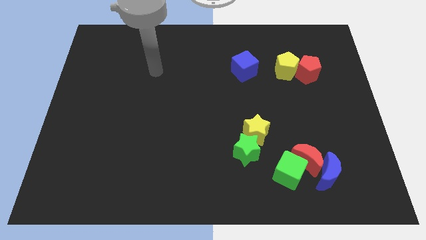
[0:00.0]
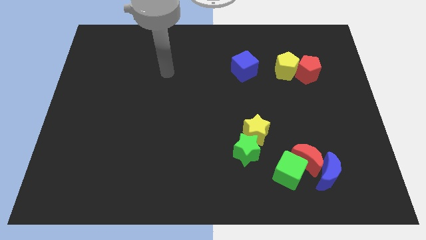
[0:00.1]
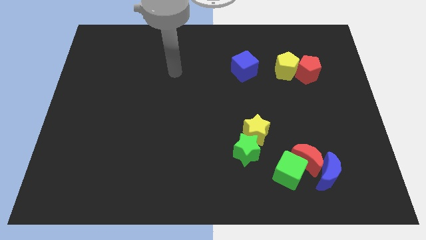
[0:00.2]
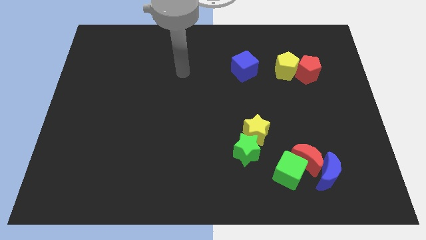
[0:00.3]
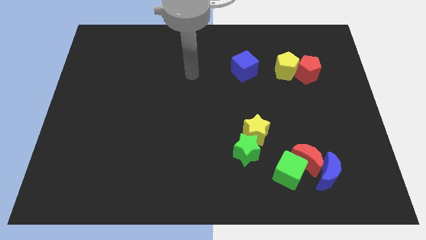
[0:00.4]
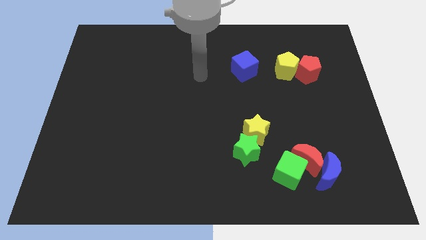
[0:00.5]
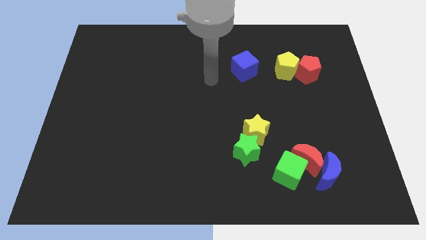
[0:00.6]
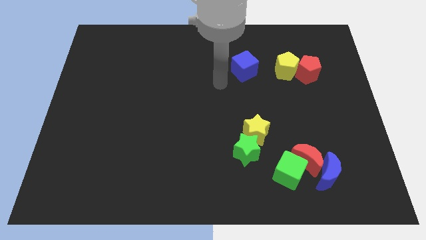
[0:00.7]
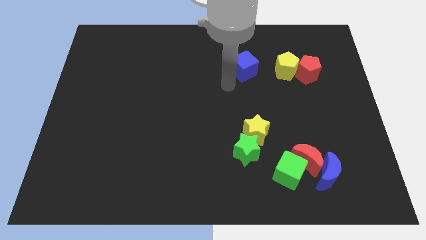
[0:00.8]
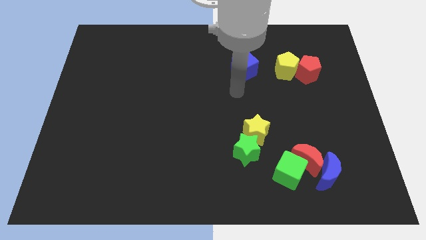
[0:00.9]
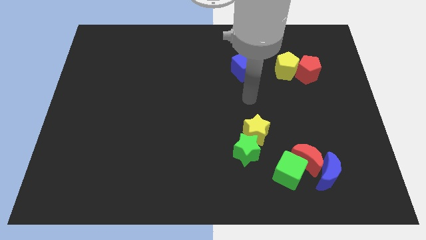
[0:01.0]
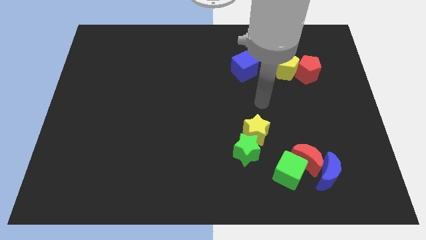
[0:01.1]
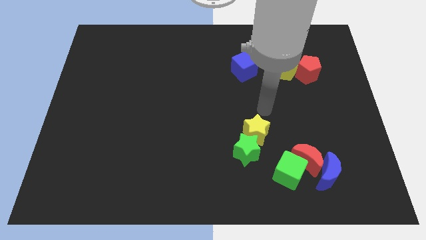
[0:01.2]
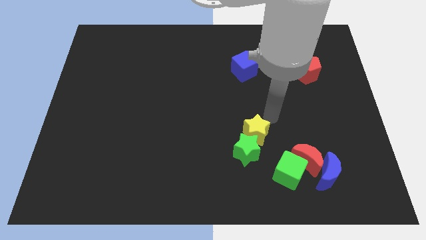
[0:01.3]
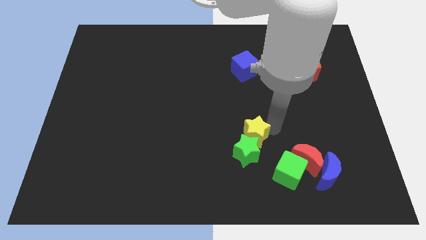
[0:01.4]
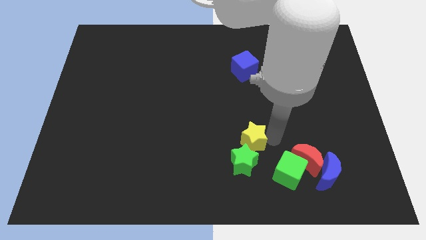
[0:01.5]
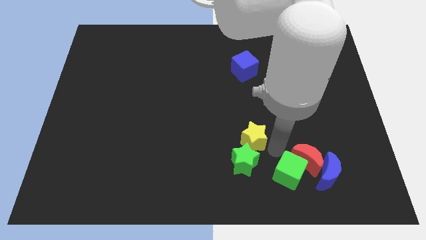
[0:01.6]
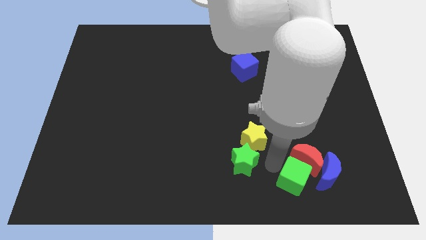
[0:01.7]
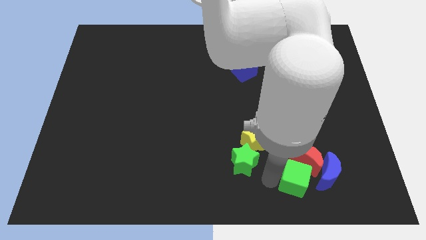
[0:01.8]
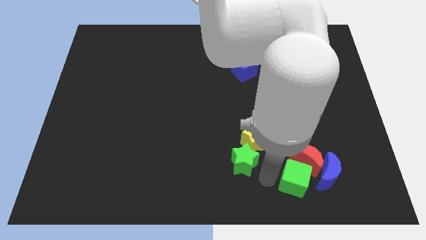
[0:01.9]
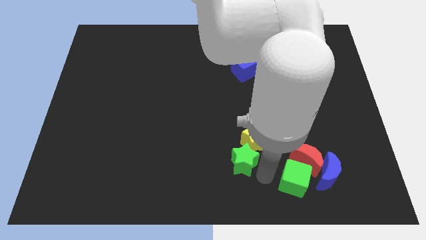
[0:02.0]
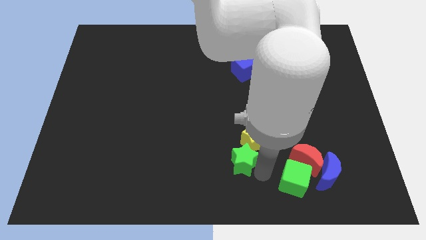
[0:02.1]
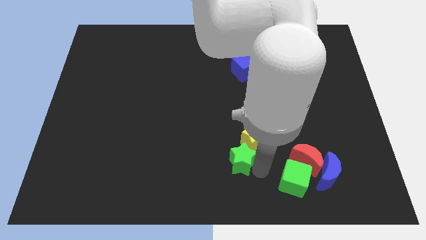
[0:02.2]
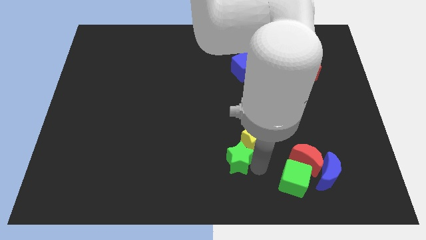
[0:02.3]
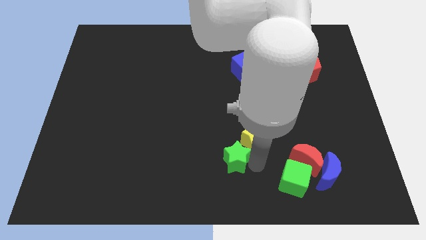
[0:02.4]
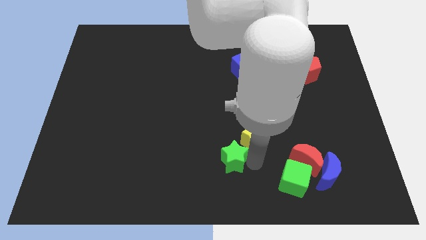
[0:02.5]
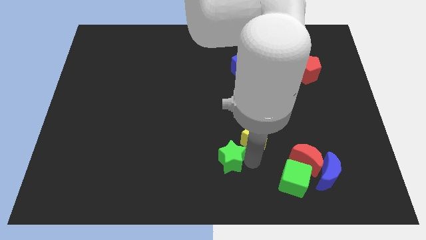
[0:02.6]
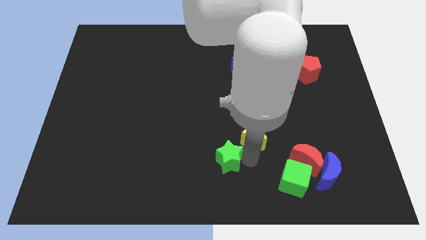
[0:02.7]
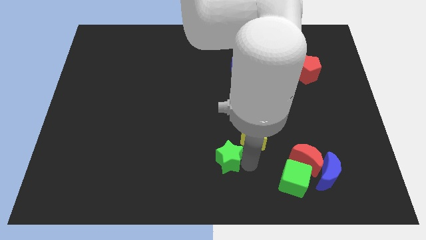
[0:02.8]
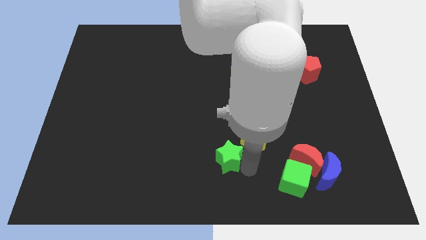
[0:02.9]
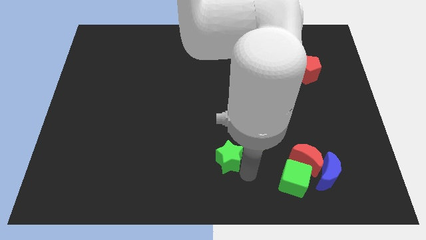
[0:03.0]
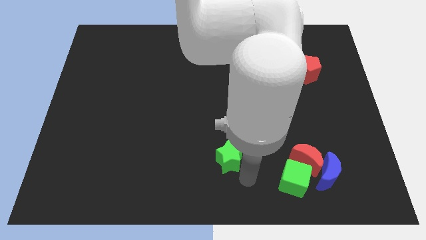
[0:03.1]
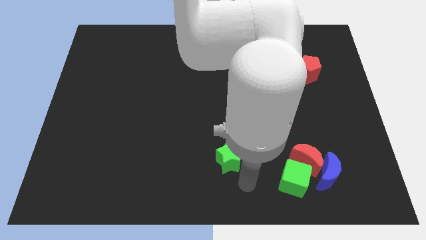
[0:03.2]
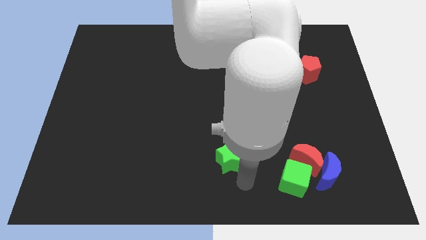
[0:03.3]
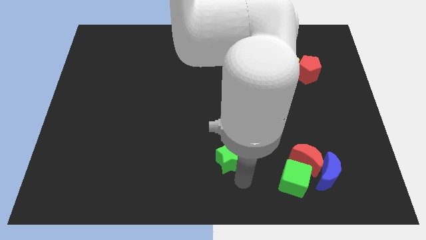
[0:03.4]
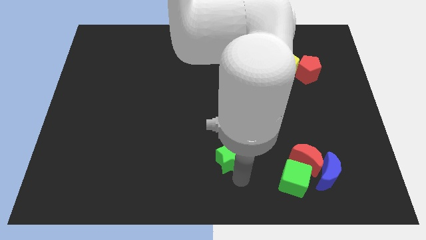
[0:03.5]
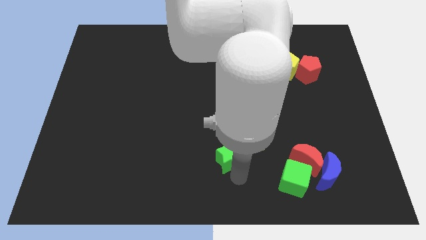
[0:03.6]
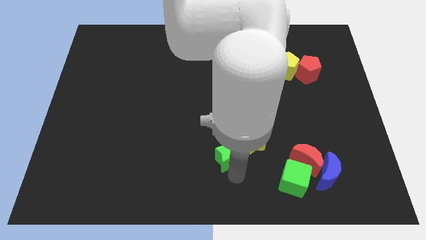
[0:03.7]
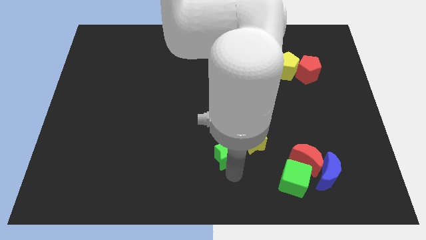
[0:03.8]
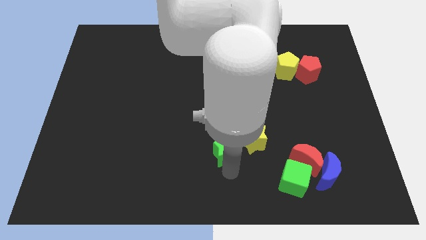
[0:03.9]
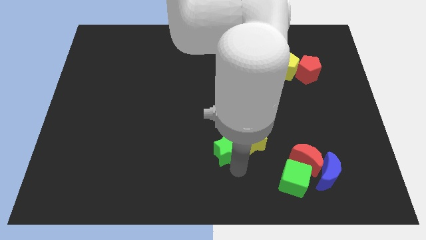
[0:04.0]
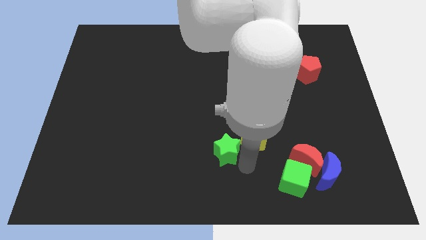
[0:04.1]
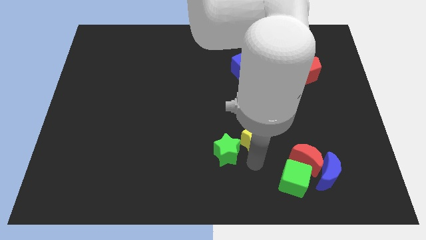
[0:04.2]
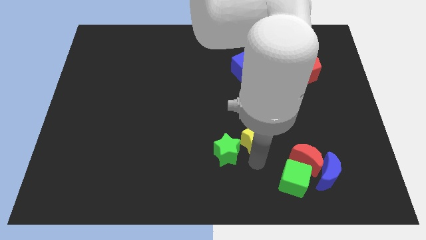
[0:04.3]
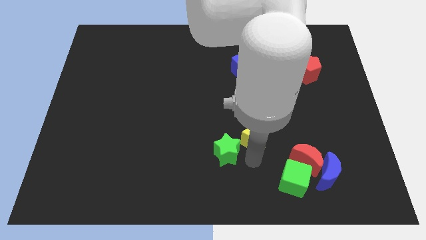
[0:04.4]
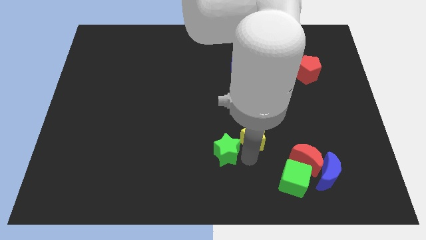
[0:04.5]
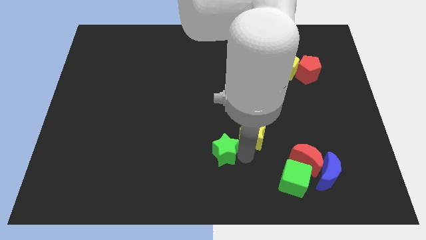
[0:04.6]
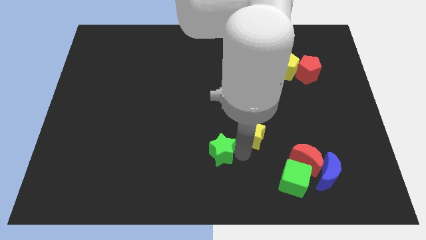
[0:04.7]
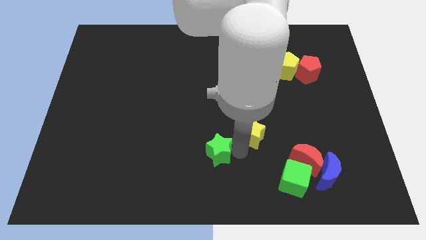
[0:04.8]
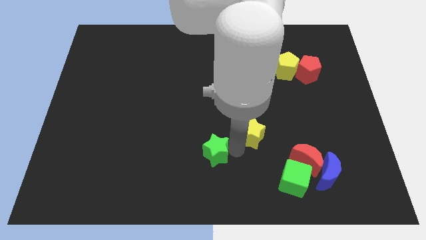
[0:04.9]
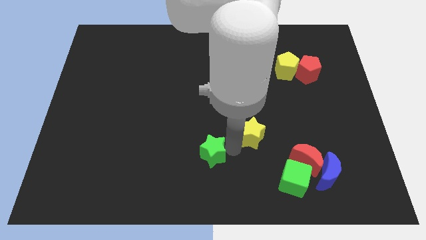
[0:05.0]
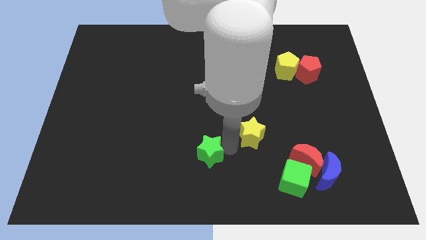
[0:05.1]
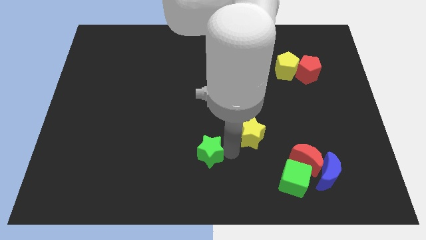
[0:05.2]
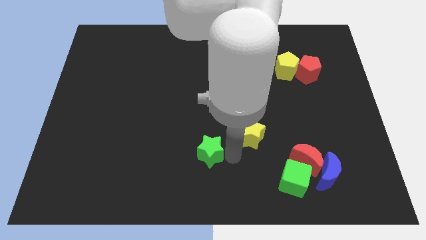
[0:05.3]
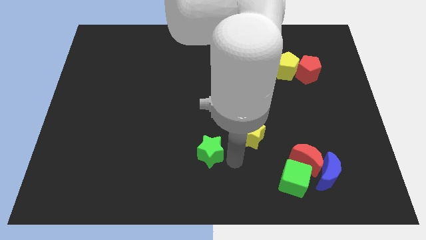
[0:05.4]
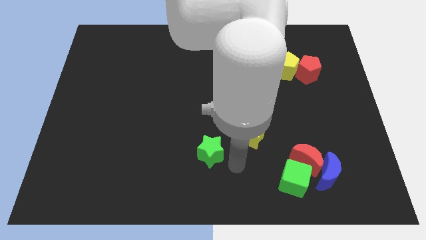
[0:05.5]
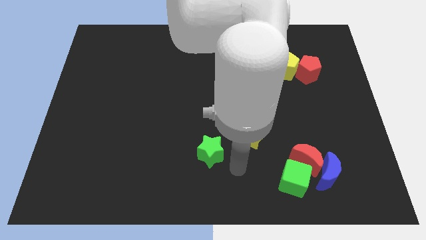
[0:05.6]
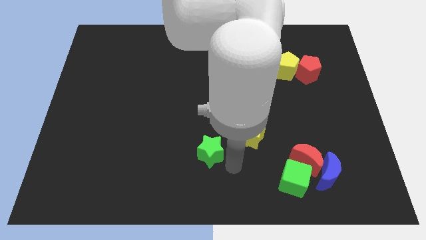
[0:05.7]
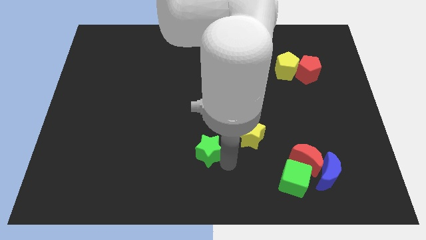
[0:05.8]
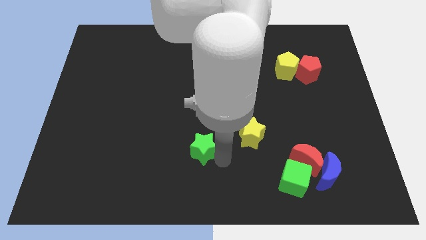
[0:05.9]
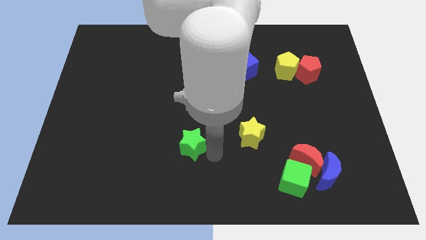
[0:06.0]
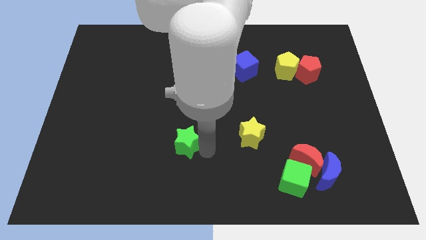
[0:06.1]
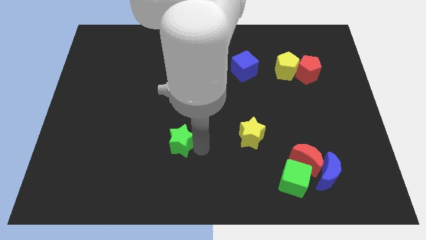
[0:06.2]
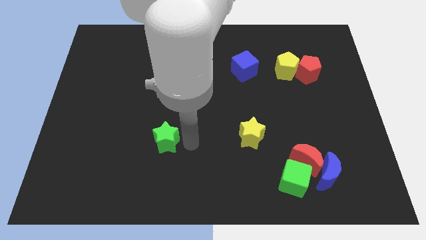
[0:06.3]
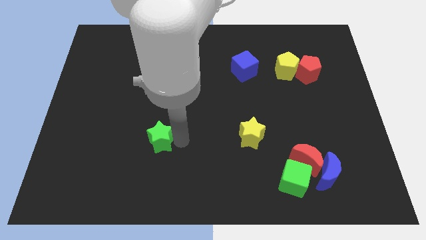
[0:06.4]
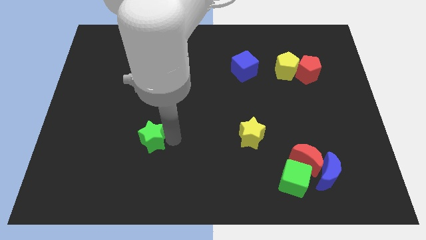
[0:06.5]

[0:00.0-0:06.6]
move the green star to the left

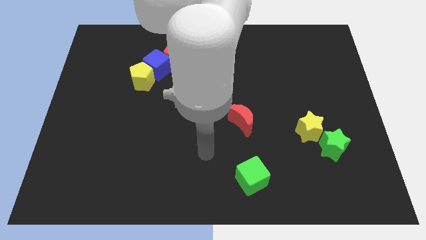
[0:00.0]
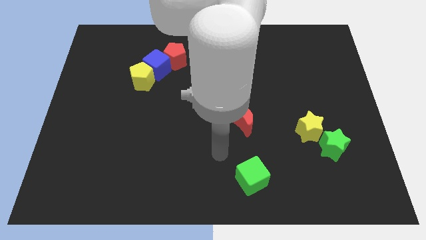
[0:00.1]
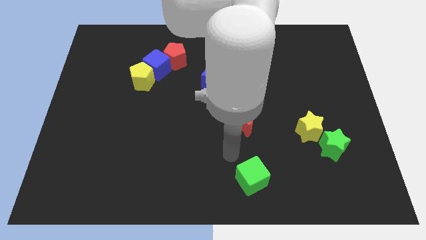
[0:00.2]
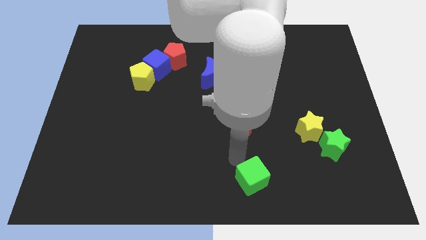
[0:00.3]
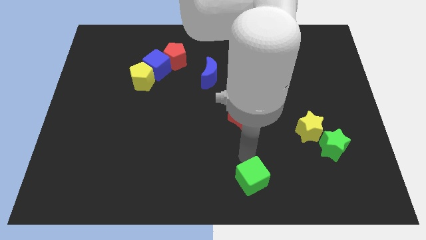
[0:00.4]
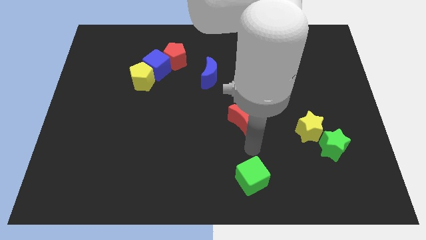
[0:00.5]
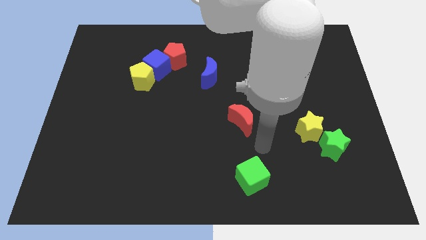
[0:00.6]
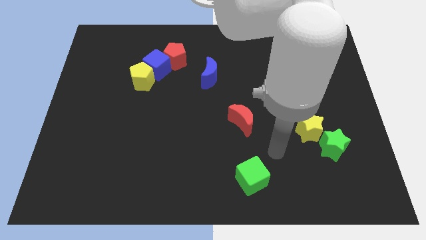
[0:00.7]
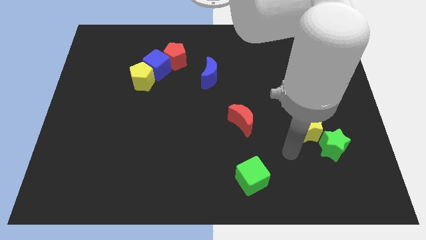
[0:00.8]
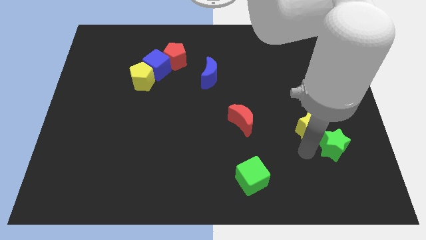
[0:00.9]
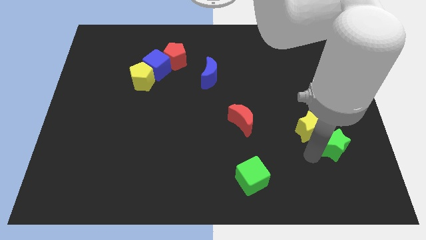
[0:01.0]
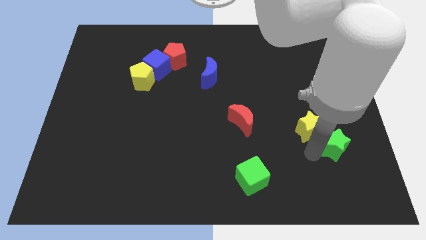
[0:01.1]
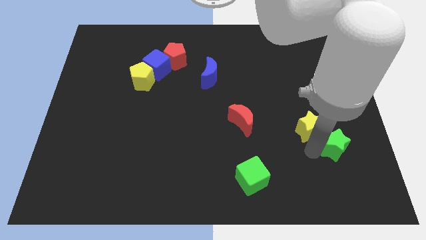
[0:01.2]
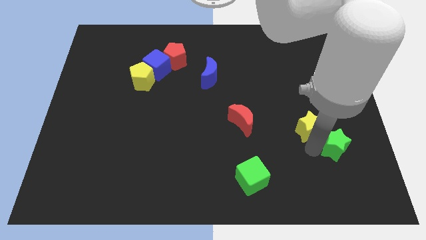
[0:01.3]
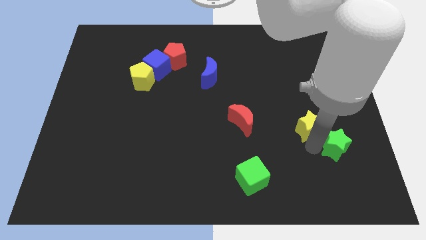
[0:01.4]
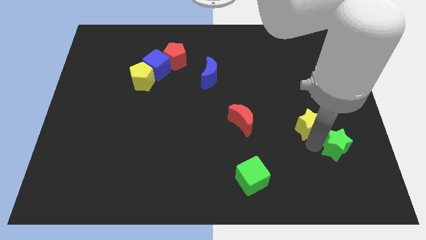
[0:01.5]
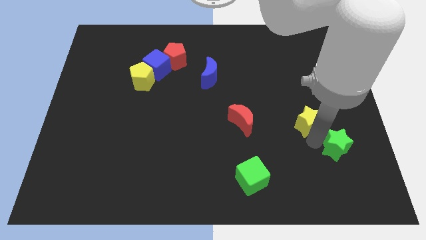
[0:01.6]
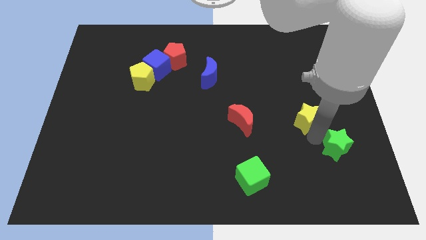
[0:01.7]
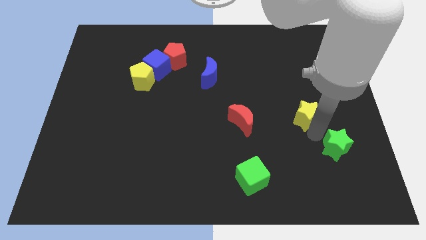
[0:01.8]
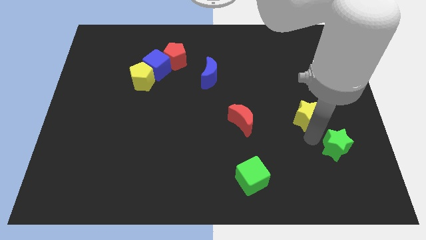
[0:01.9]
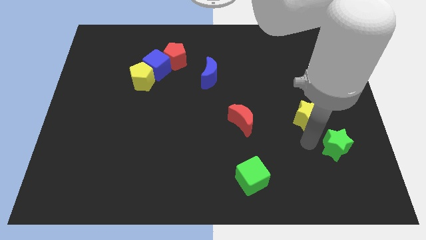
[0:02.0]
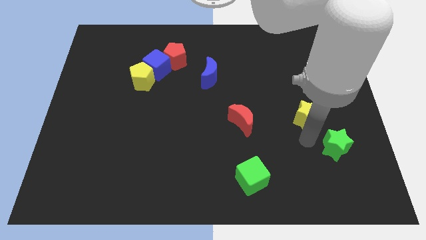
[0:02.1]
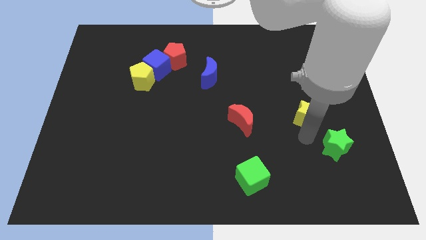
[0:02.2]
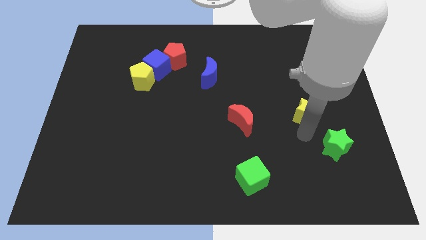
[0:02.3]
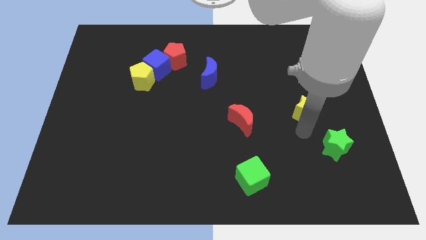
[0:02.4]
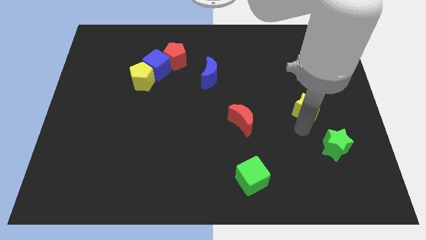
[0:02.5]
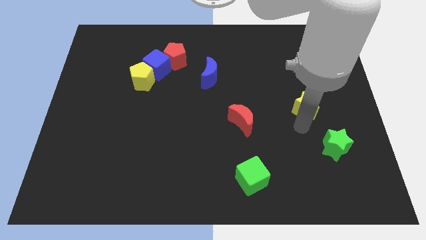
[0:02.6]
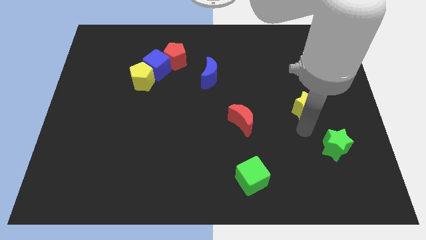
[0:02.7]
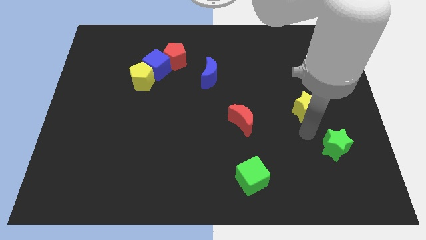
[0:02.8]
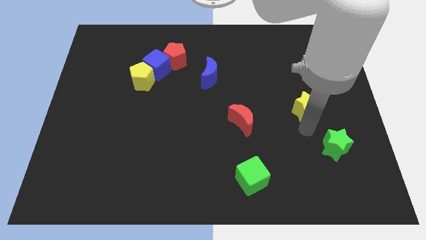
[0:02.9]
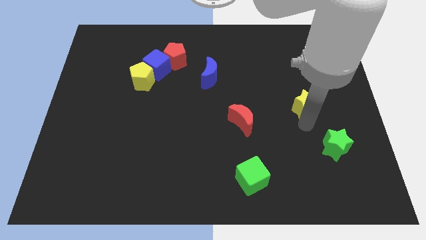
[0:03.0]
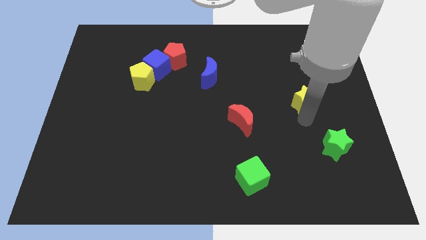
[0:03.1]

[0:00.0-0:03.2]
slide the yellow star a little upwards
